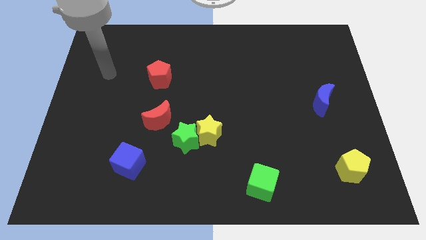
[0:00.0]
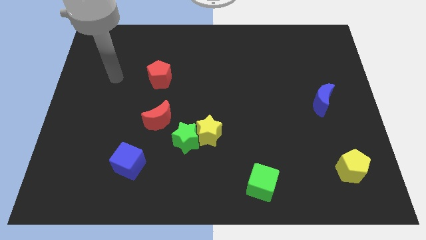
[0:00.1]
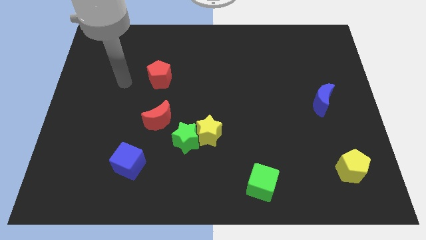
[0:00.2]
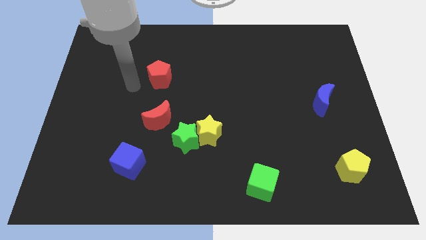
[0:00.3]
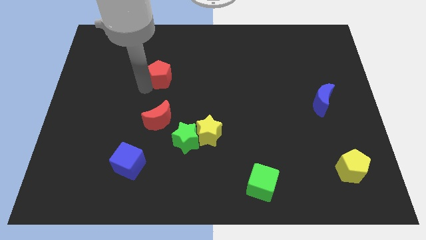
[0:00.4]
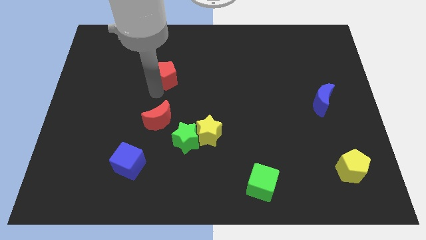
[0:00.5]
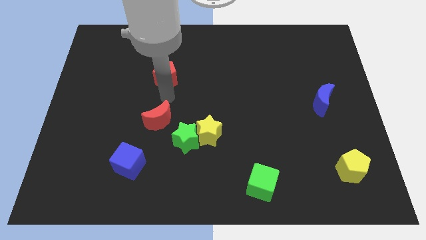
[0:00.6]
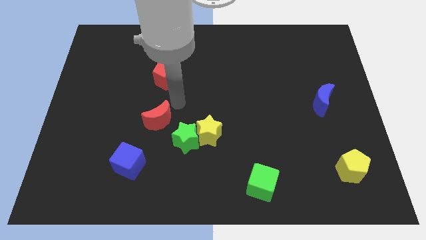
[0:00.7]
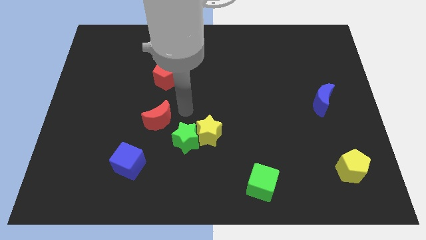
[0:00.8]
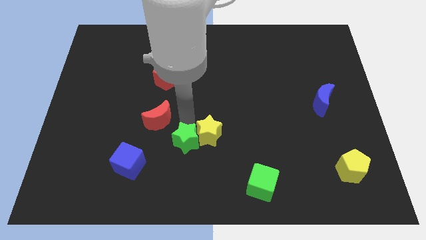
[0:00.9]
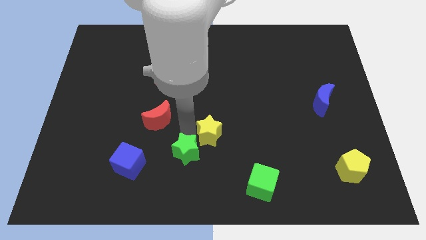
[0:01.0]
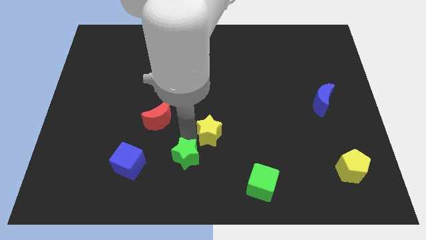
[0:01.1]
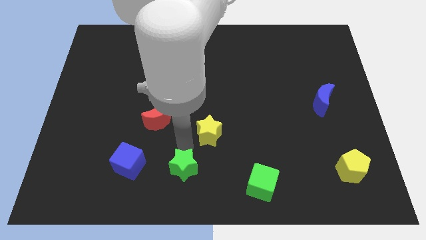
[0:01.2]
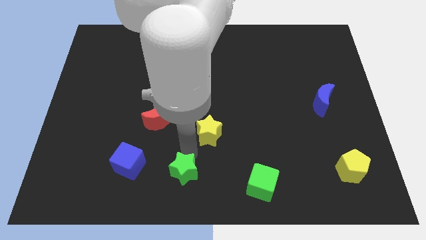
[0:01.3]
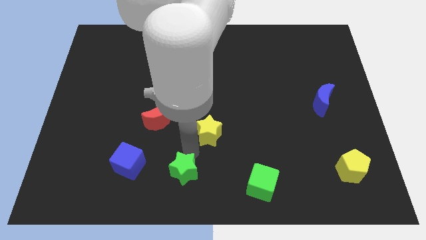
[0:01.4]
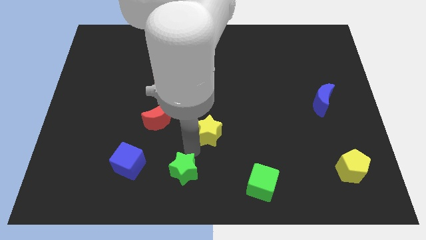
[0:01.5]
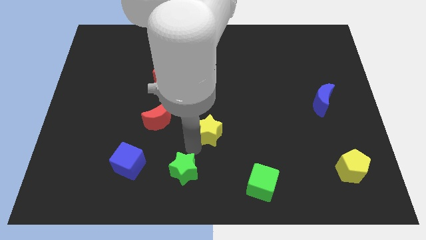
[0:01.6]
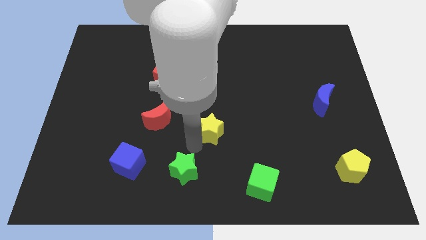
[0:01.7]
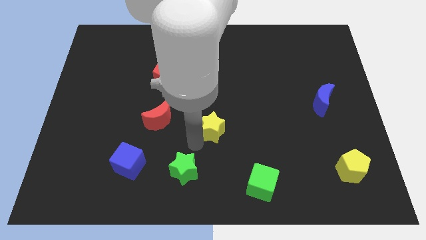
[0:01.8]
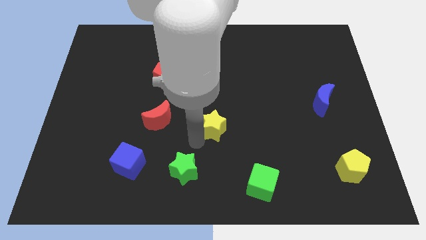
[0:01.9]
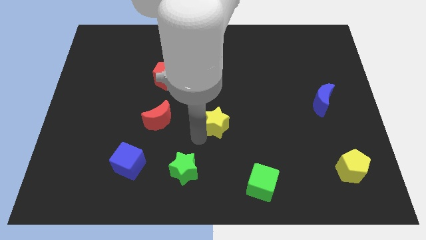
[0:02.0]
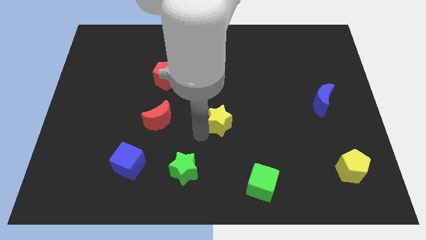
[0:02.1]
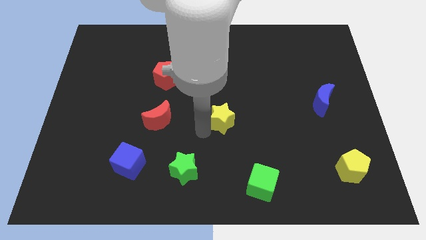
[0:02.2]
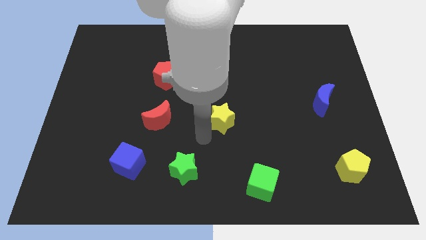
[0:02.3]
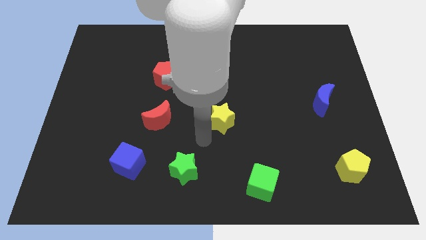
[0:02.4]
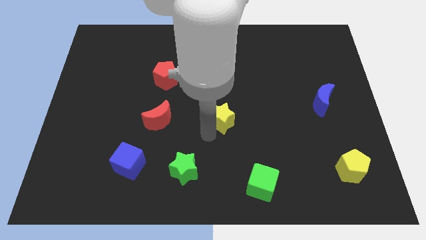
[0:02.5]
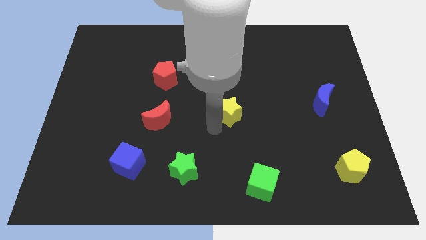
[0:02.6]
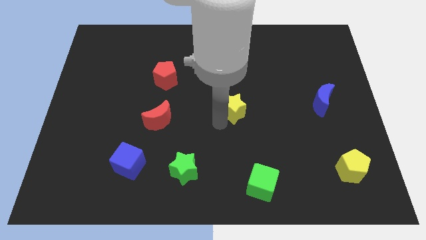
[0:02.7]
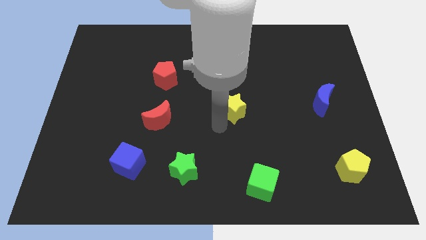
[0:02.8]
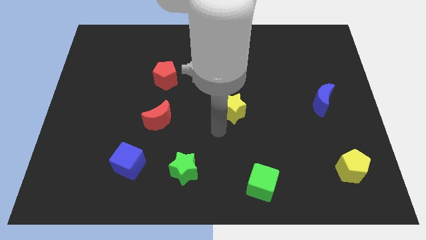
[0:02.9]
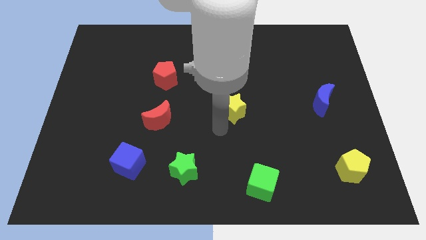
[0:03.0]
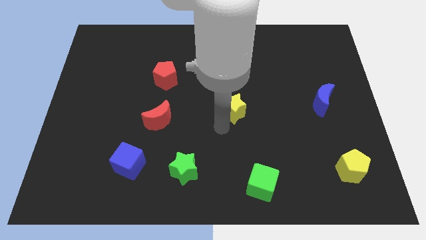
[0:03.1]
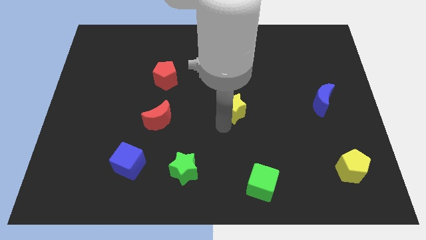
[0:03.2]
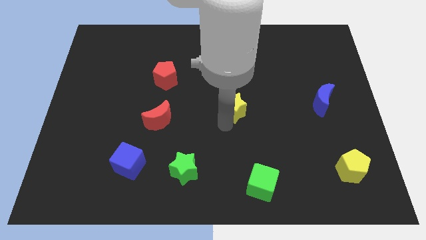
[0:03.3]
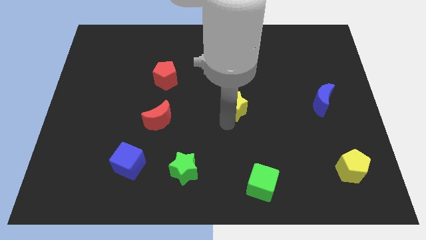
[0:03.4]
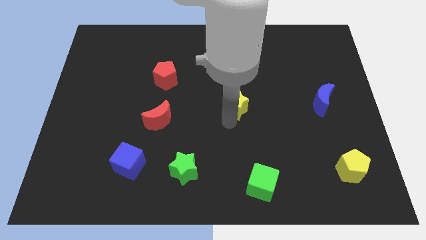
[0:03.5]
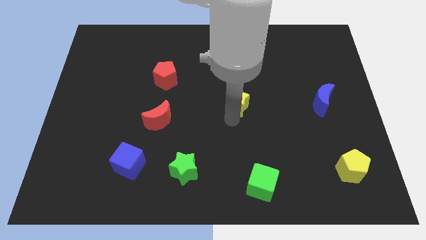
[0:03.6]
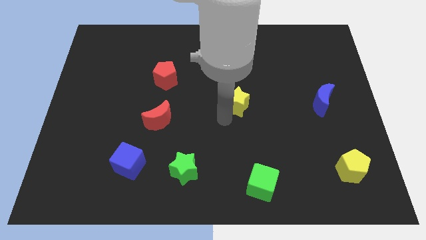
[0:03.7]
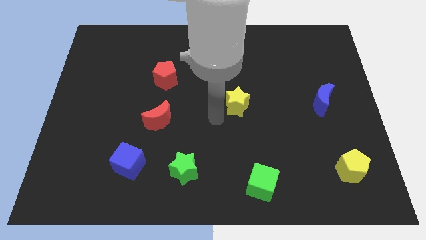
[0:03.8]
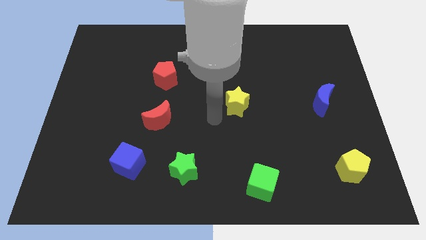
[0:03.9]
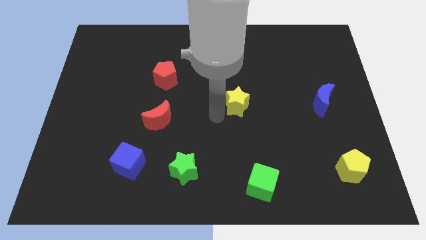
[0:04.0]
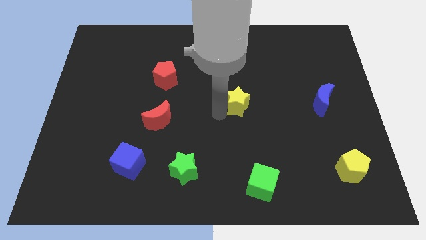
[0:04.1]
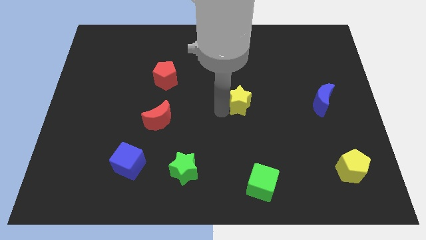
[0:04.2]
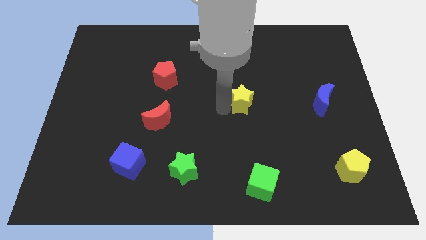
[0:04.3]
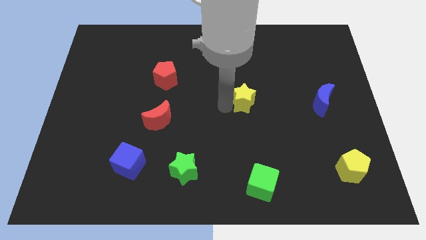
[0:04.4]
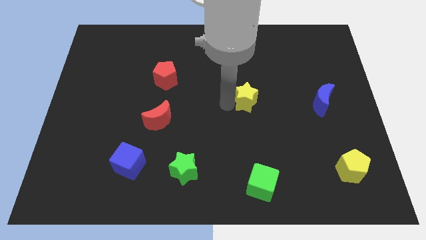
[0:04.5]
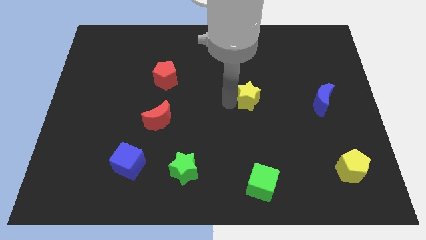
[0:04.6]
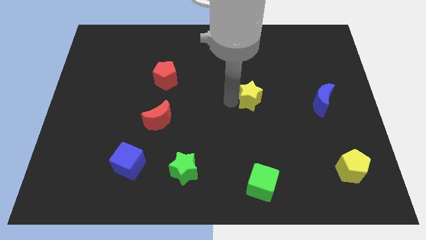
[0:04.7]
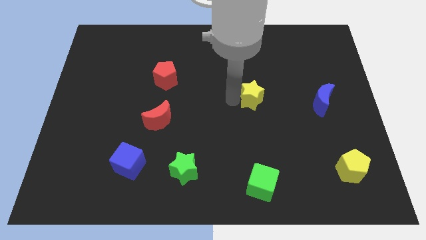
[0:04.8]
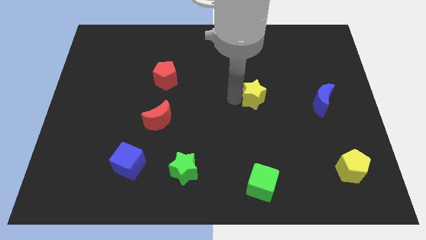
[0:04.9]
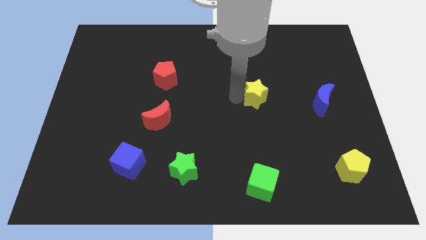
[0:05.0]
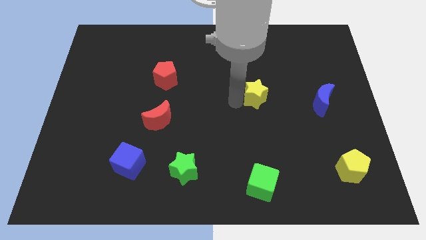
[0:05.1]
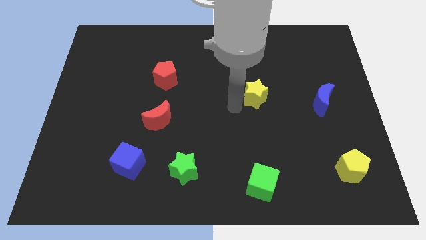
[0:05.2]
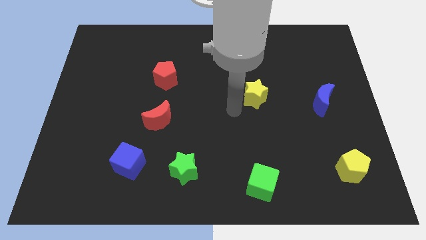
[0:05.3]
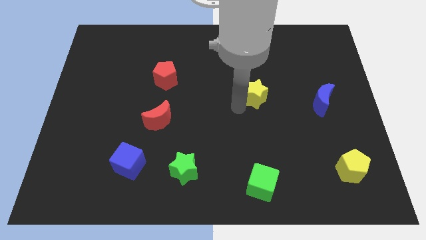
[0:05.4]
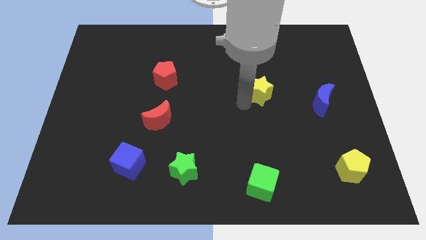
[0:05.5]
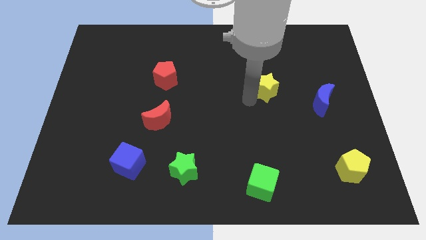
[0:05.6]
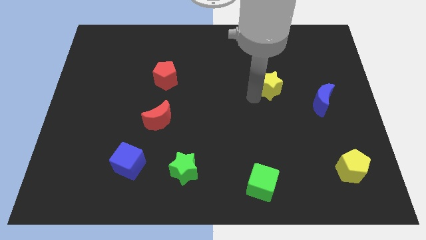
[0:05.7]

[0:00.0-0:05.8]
slide the yellow star up and to the right diagonally

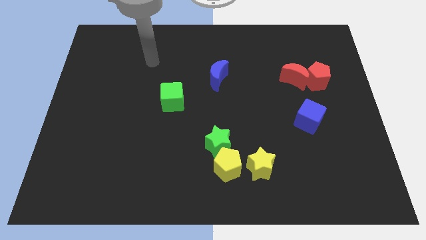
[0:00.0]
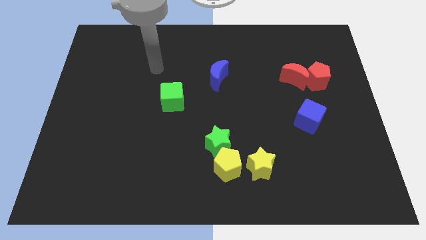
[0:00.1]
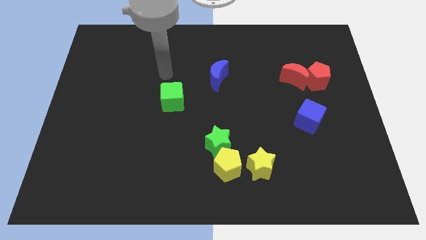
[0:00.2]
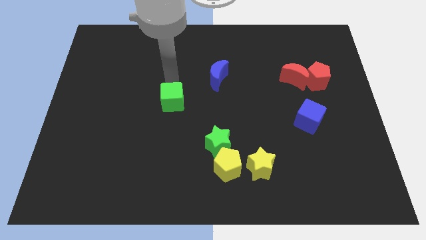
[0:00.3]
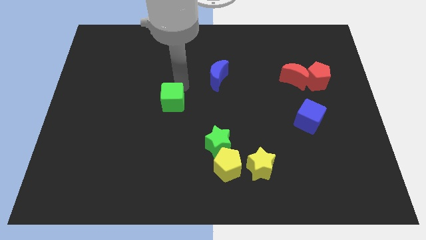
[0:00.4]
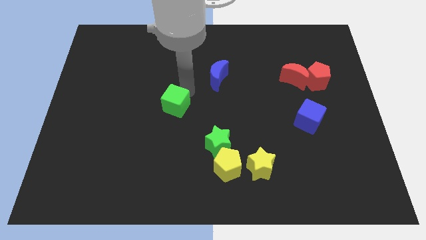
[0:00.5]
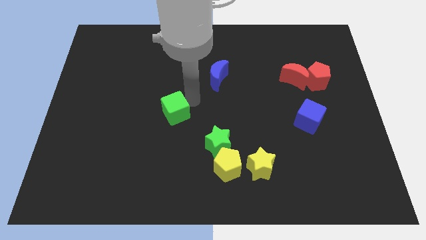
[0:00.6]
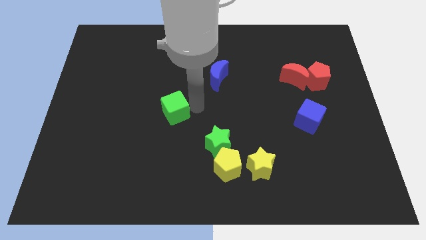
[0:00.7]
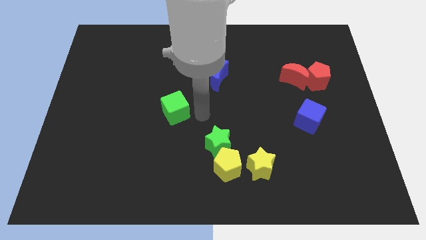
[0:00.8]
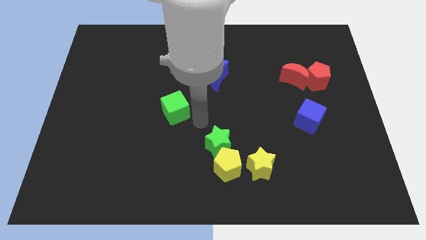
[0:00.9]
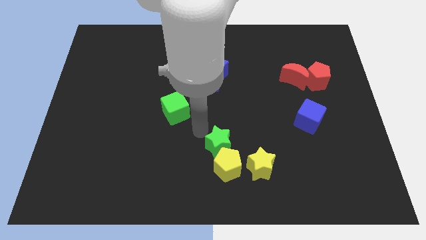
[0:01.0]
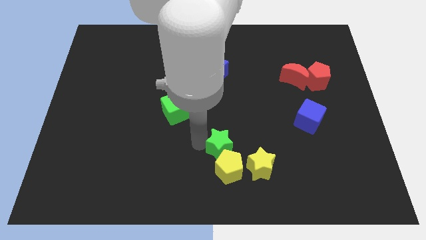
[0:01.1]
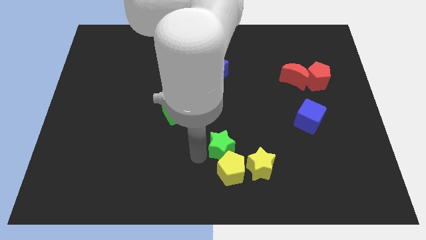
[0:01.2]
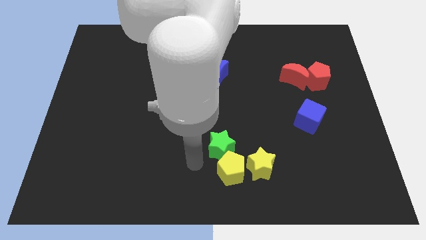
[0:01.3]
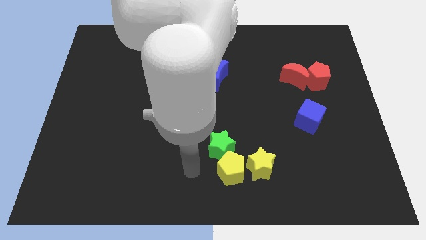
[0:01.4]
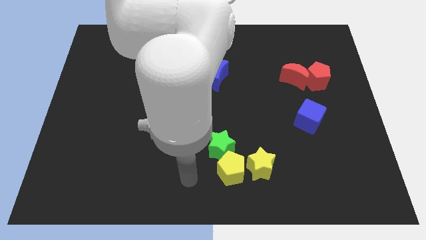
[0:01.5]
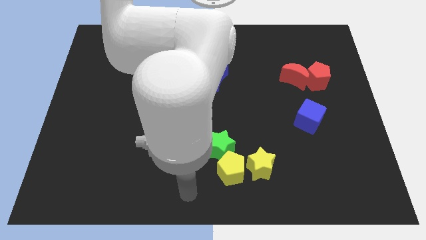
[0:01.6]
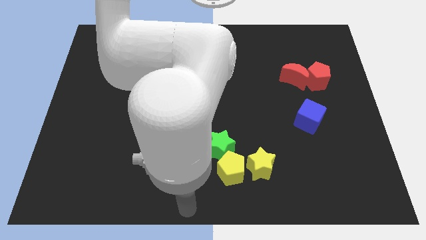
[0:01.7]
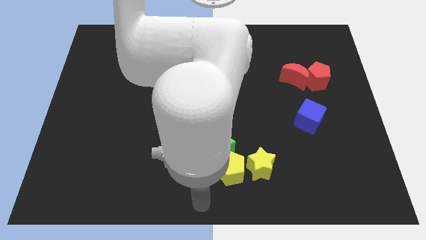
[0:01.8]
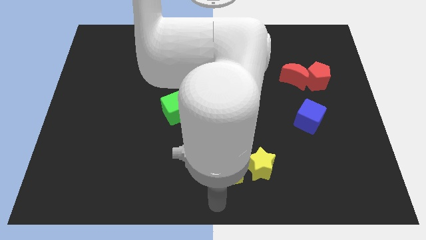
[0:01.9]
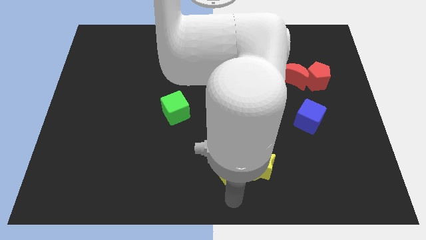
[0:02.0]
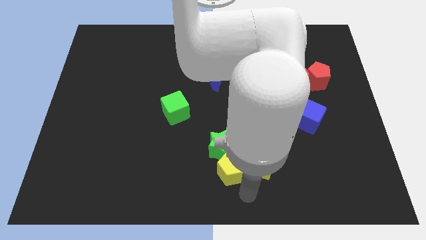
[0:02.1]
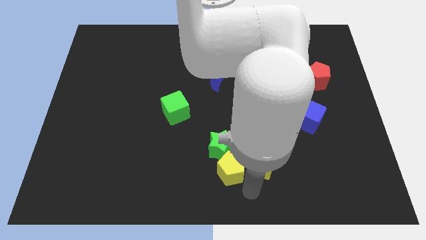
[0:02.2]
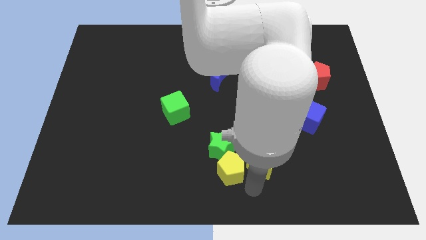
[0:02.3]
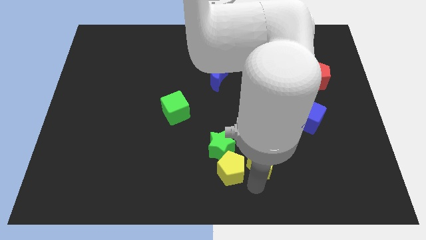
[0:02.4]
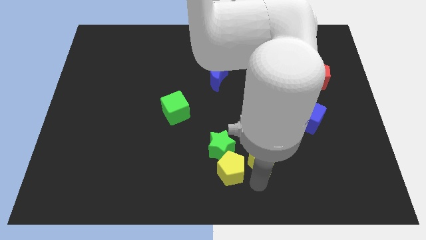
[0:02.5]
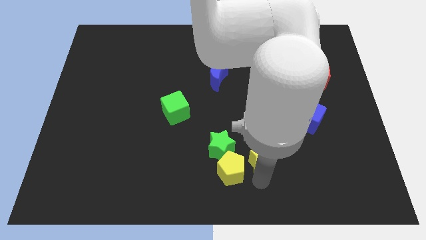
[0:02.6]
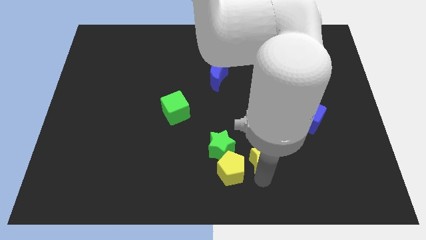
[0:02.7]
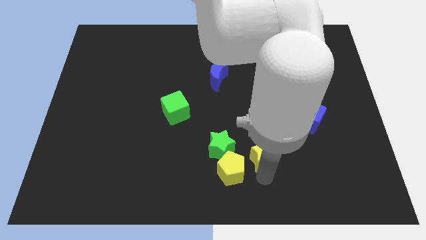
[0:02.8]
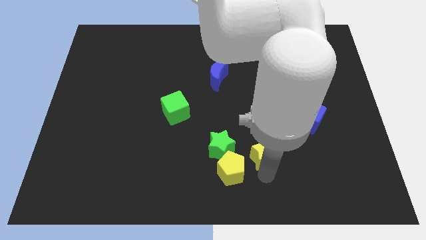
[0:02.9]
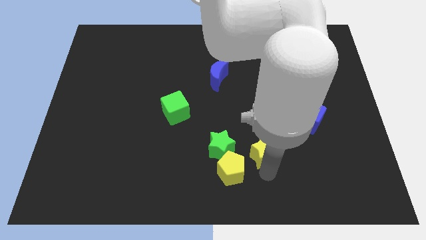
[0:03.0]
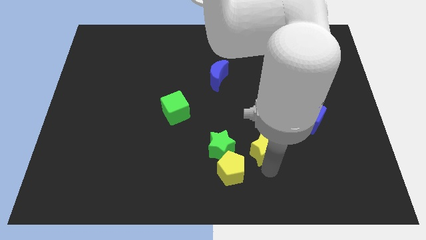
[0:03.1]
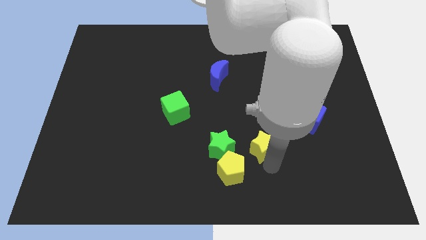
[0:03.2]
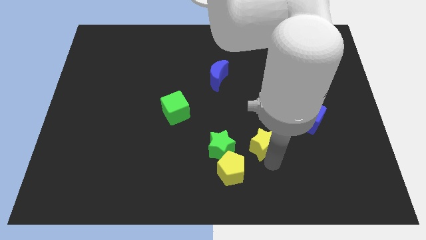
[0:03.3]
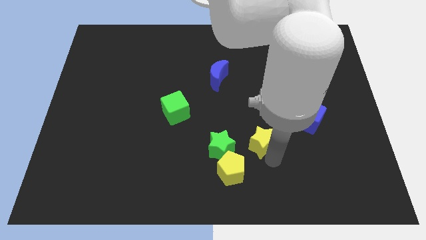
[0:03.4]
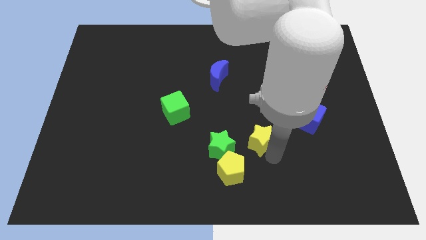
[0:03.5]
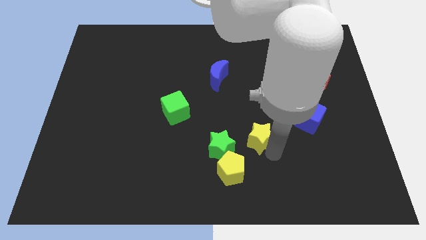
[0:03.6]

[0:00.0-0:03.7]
move the yellow star up slightly
